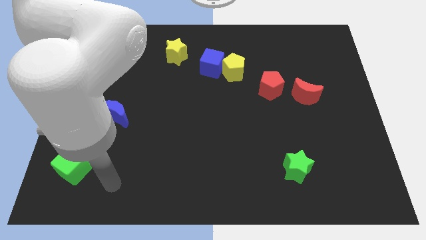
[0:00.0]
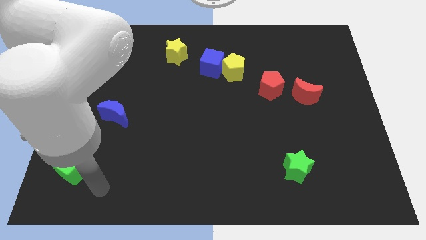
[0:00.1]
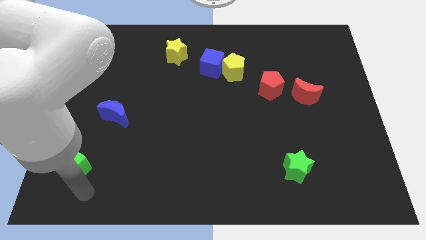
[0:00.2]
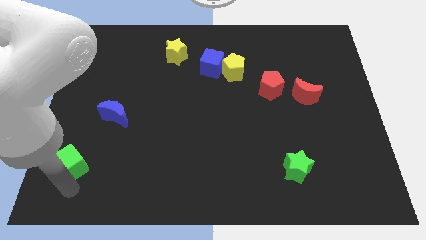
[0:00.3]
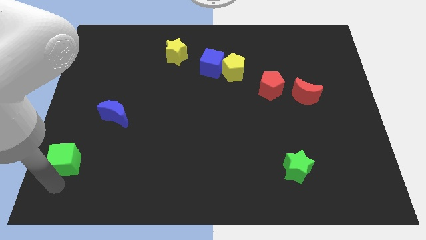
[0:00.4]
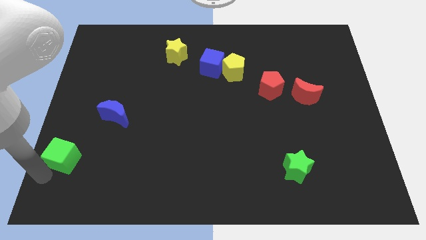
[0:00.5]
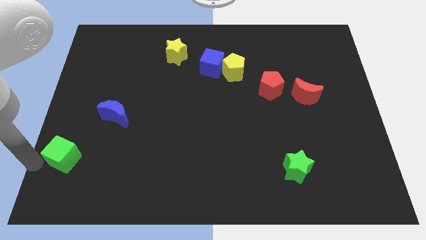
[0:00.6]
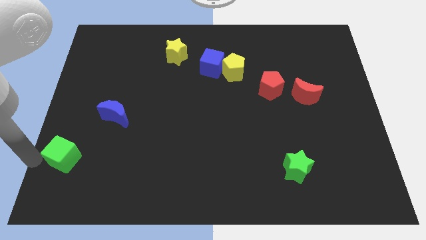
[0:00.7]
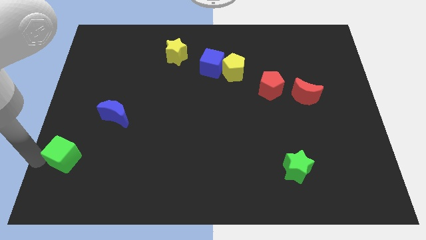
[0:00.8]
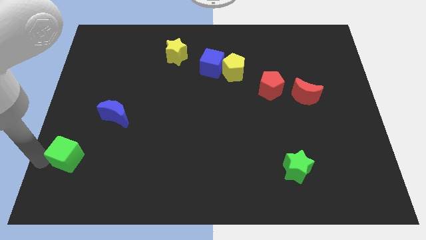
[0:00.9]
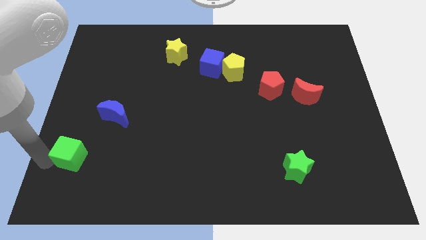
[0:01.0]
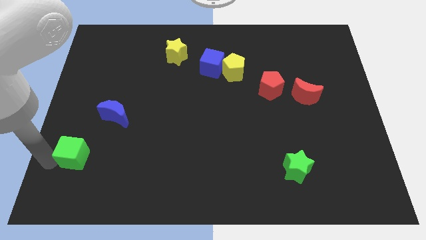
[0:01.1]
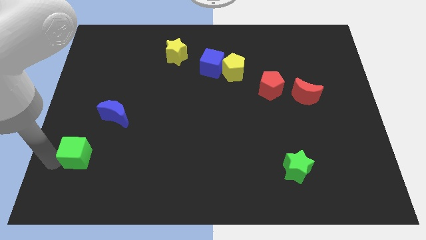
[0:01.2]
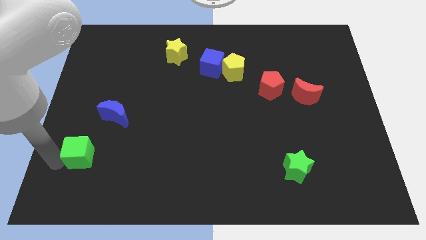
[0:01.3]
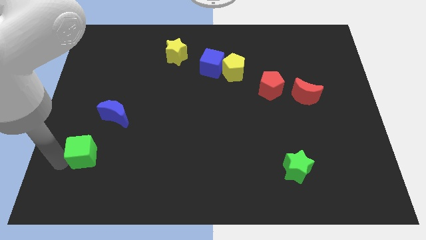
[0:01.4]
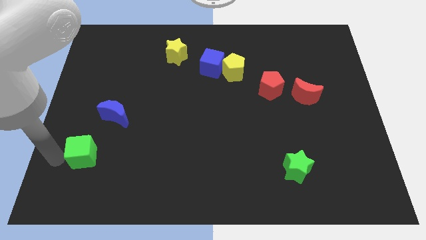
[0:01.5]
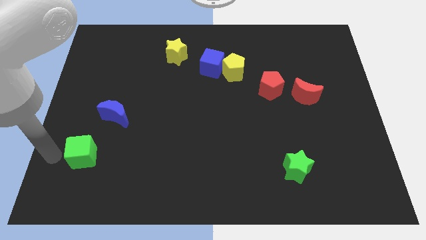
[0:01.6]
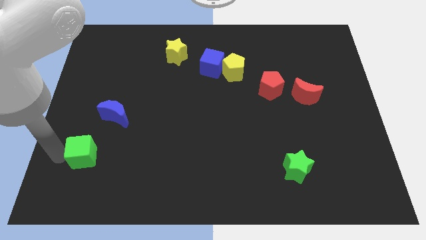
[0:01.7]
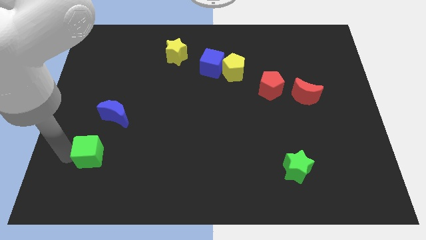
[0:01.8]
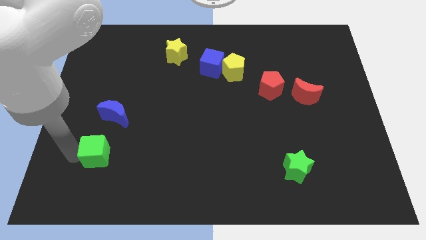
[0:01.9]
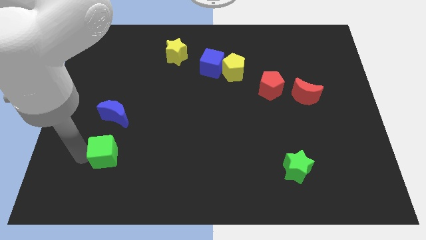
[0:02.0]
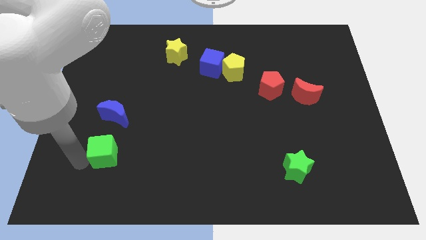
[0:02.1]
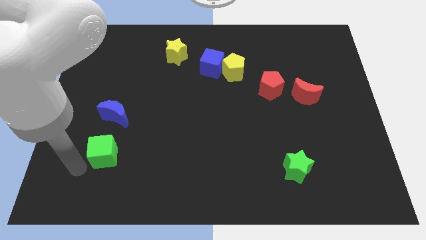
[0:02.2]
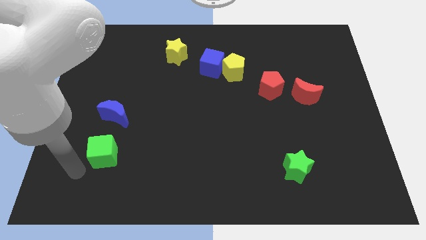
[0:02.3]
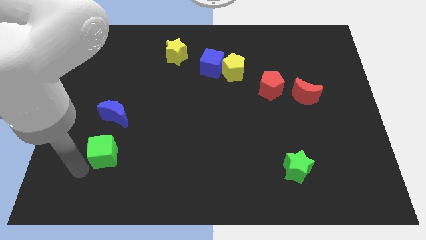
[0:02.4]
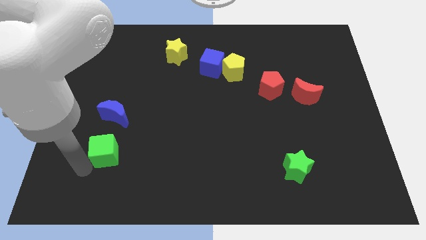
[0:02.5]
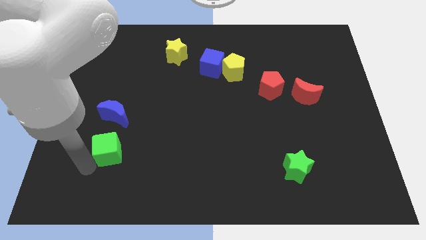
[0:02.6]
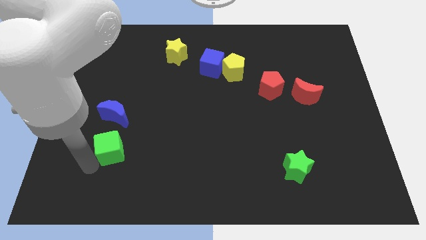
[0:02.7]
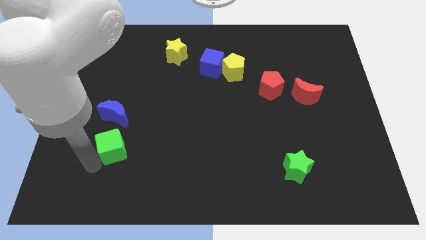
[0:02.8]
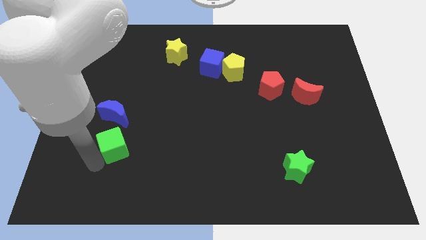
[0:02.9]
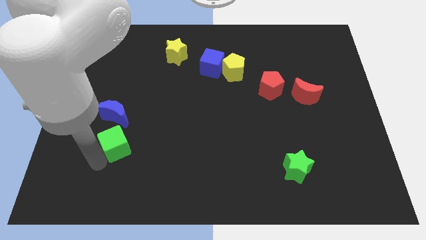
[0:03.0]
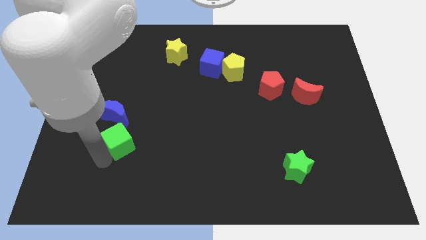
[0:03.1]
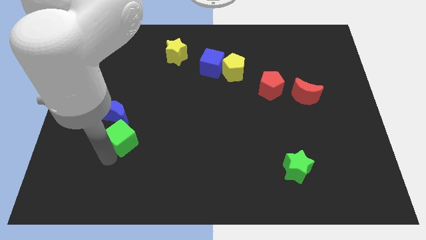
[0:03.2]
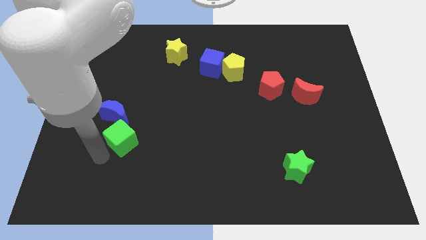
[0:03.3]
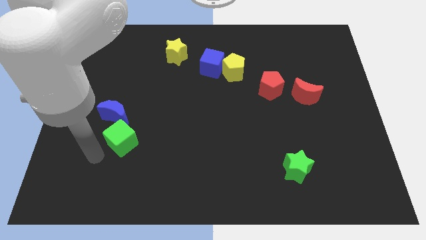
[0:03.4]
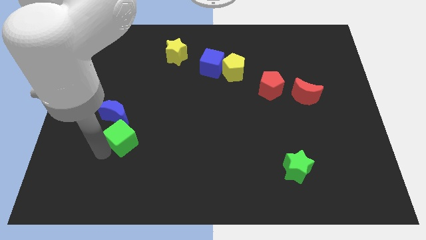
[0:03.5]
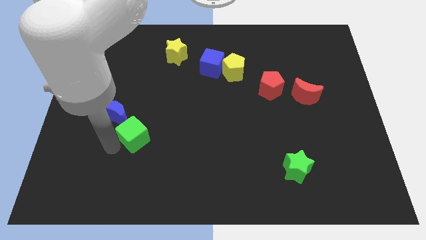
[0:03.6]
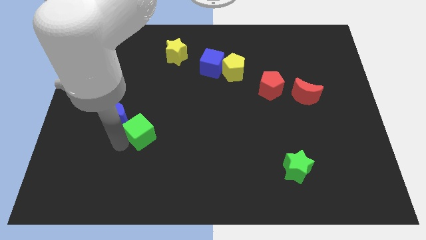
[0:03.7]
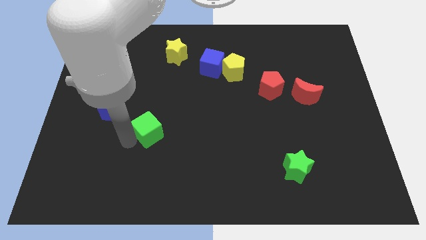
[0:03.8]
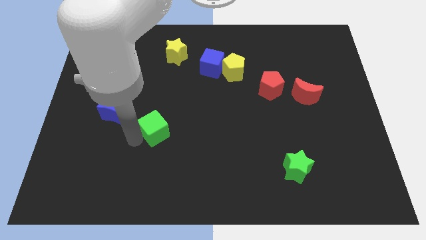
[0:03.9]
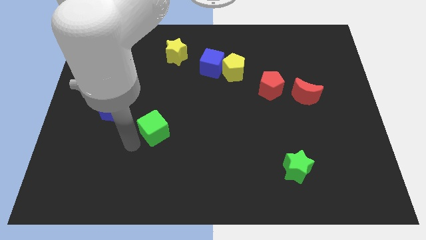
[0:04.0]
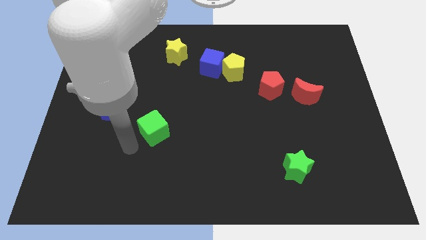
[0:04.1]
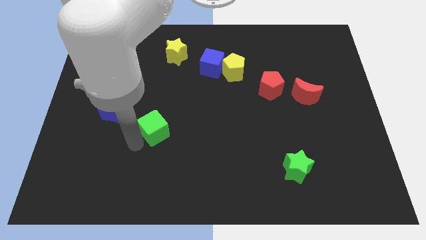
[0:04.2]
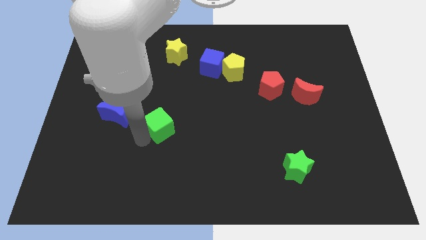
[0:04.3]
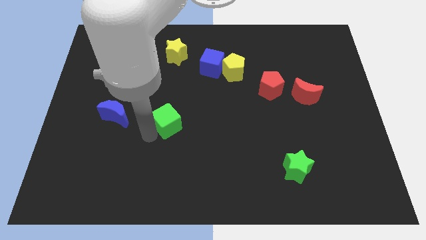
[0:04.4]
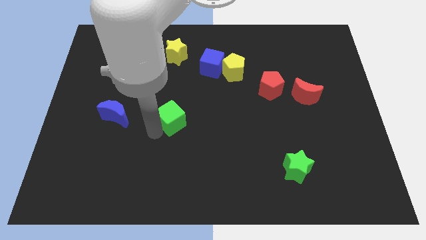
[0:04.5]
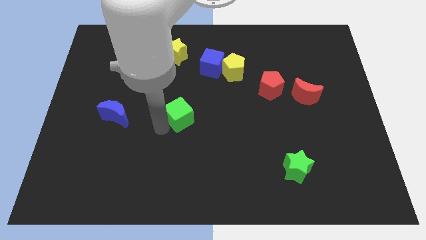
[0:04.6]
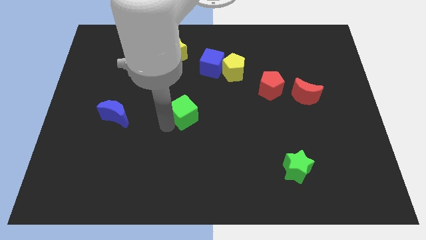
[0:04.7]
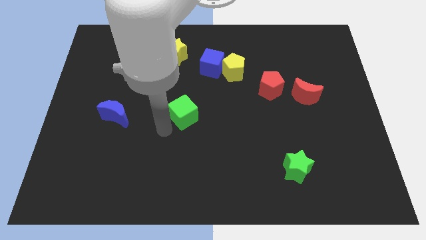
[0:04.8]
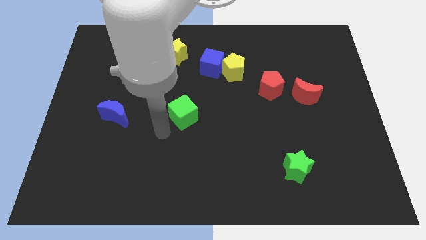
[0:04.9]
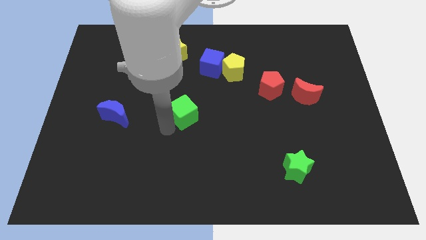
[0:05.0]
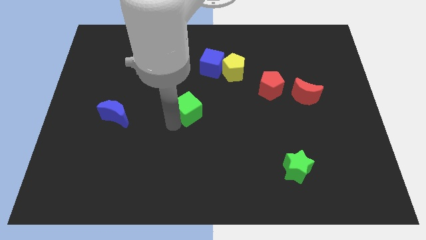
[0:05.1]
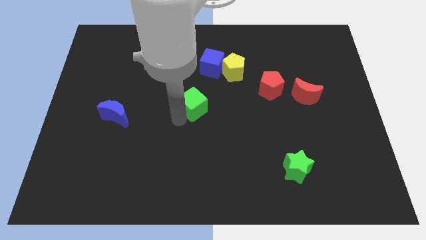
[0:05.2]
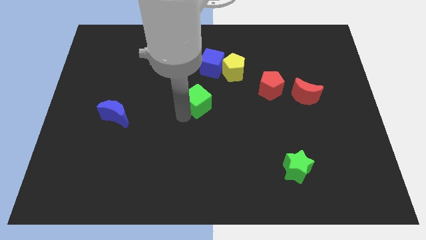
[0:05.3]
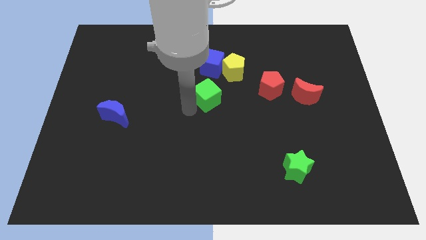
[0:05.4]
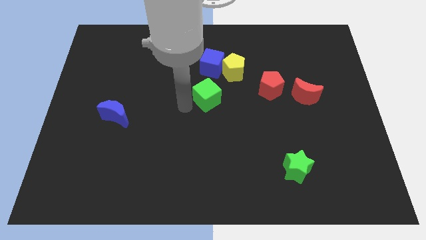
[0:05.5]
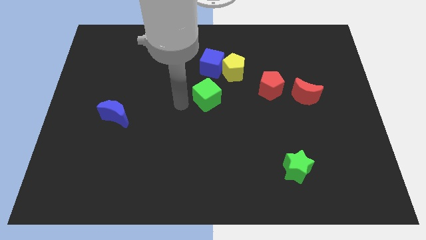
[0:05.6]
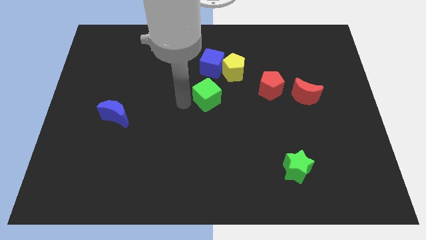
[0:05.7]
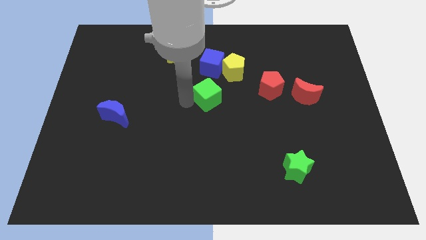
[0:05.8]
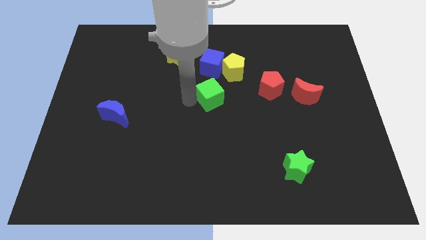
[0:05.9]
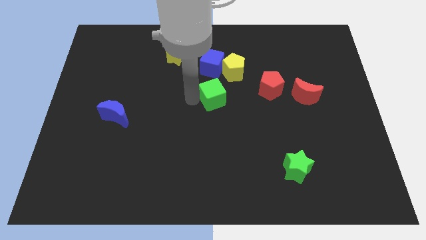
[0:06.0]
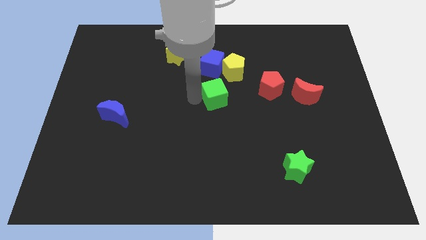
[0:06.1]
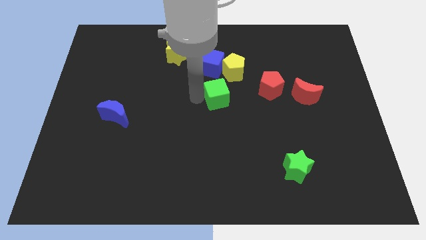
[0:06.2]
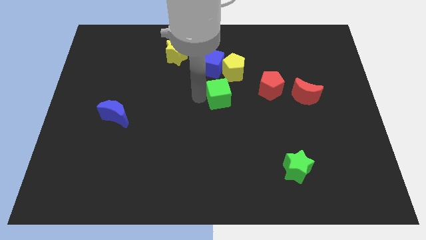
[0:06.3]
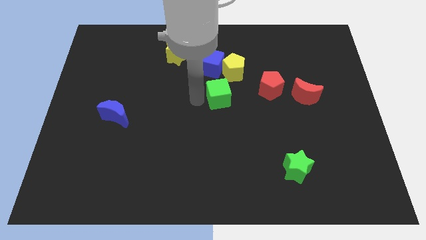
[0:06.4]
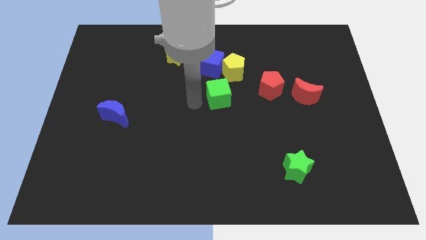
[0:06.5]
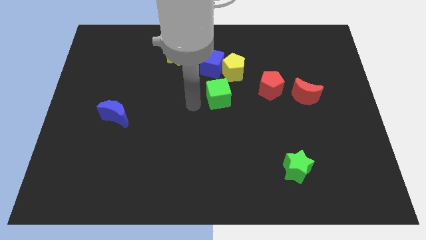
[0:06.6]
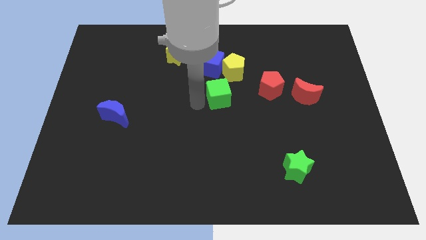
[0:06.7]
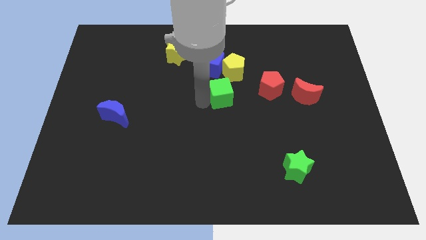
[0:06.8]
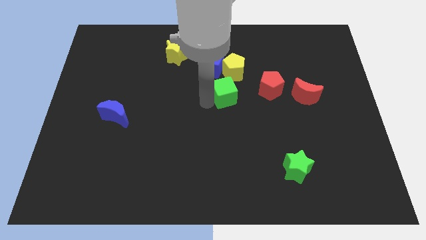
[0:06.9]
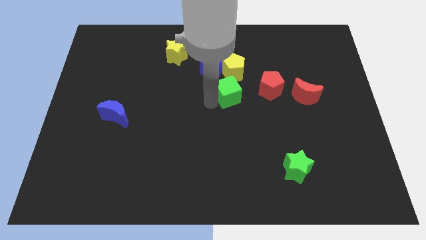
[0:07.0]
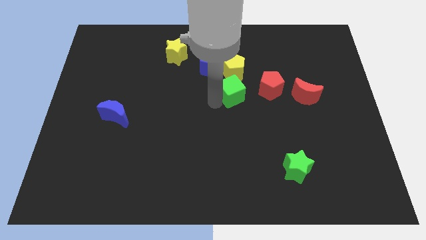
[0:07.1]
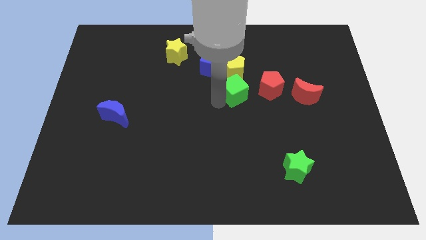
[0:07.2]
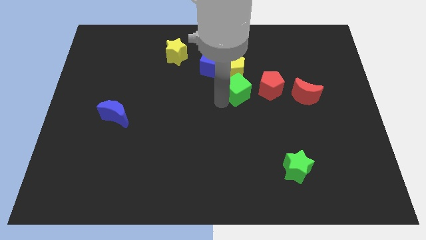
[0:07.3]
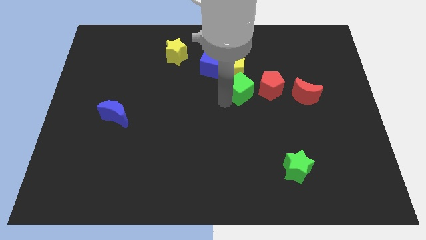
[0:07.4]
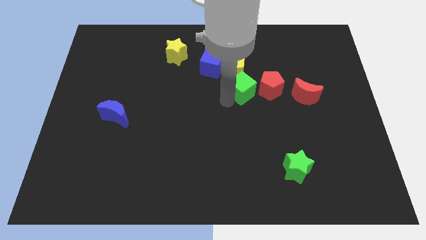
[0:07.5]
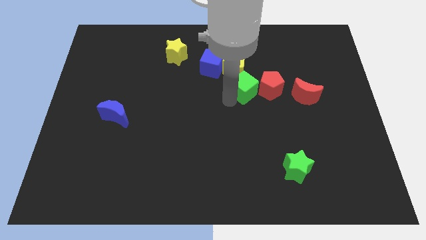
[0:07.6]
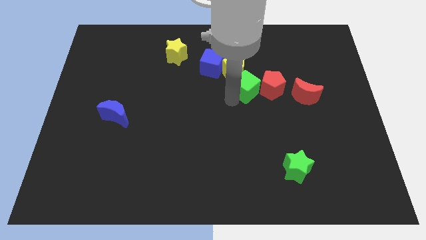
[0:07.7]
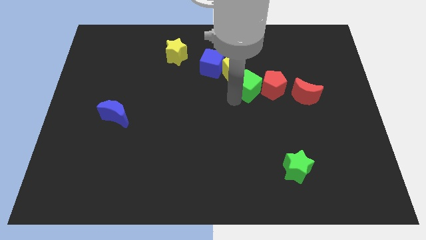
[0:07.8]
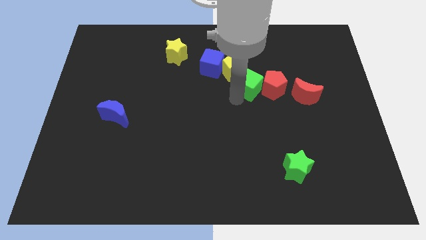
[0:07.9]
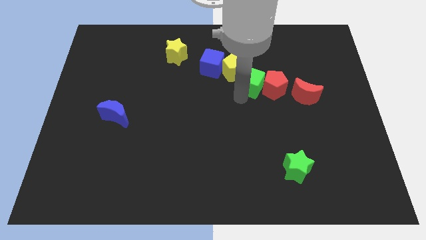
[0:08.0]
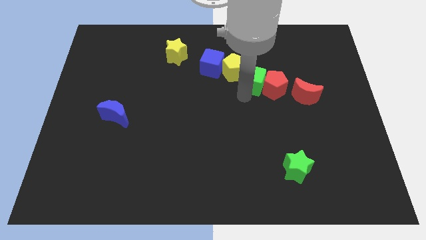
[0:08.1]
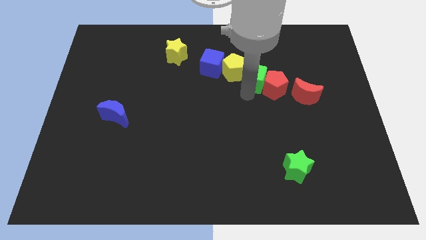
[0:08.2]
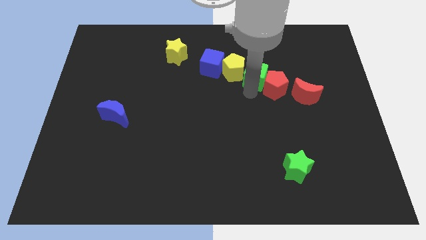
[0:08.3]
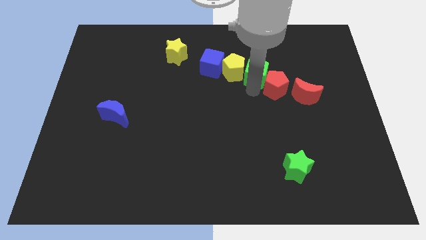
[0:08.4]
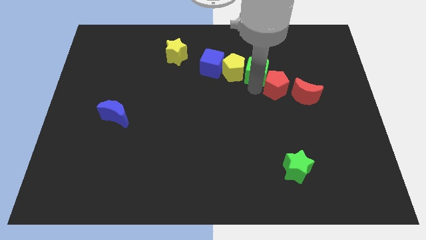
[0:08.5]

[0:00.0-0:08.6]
put the green cube diagonally up and to the right of the yellow pentagon
